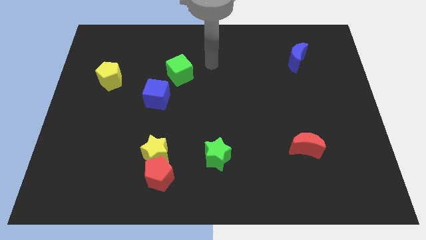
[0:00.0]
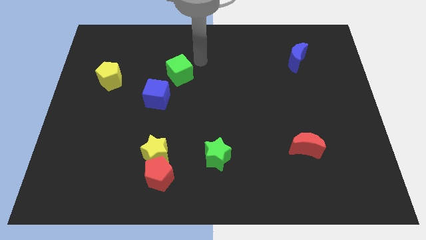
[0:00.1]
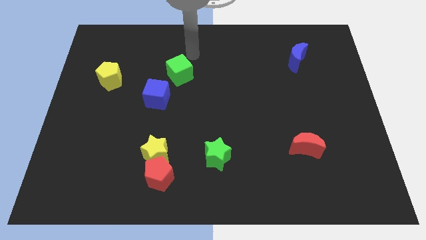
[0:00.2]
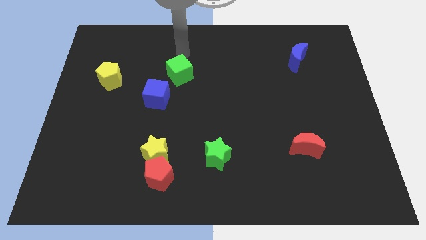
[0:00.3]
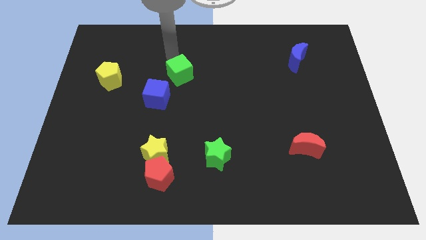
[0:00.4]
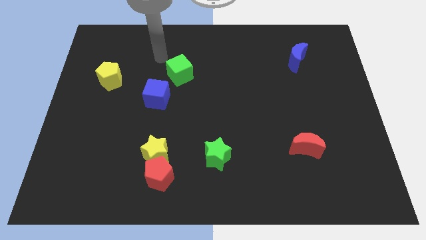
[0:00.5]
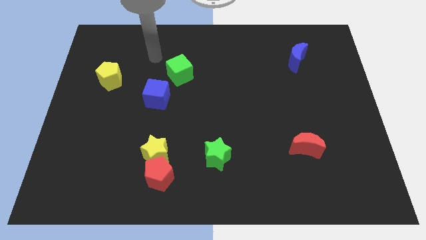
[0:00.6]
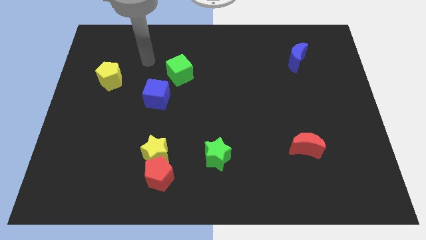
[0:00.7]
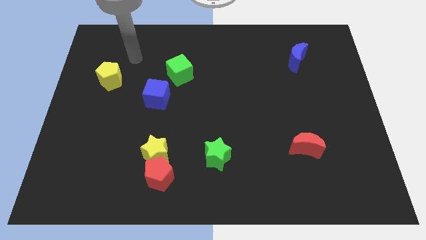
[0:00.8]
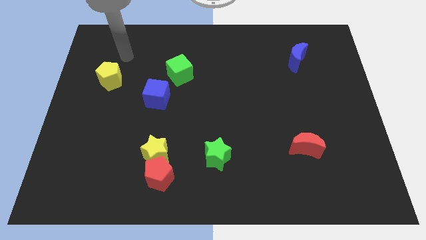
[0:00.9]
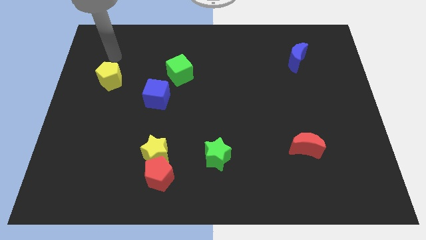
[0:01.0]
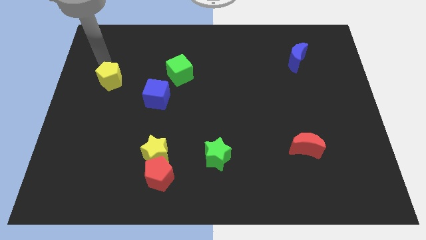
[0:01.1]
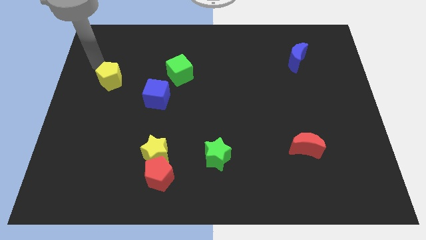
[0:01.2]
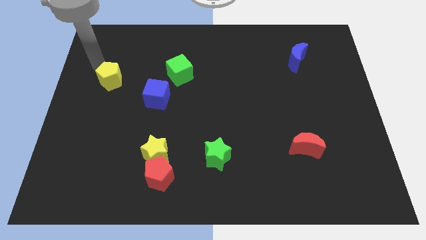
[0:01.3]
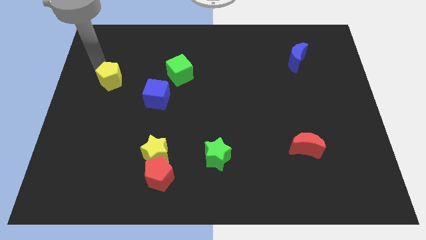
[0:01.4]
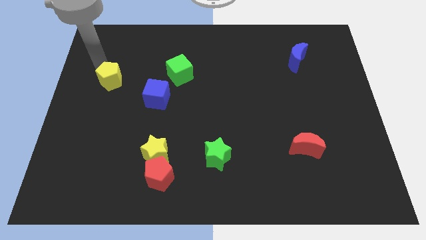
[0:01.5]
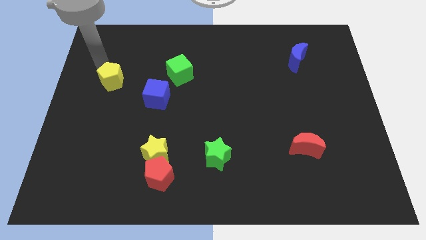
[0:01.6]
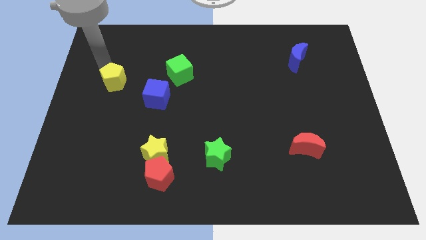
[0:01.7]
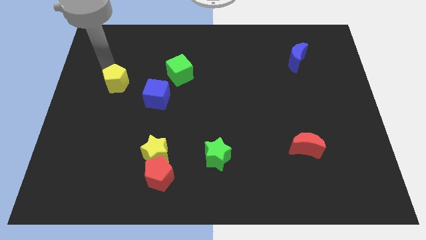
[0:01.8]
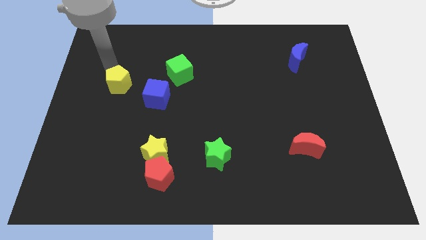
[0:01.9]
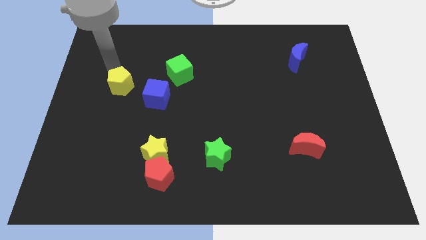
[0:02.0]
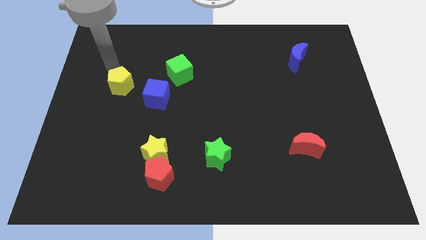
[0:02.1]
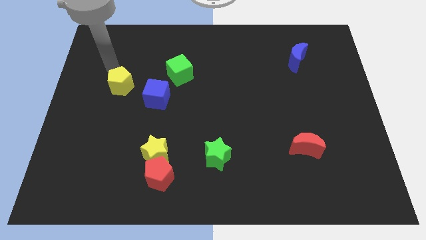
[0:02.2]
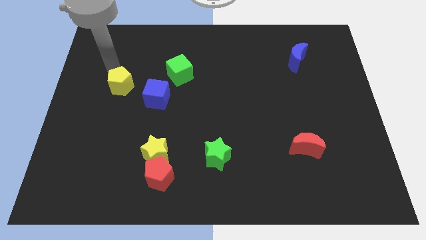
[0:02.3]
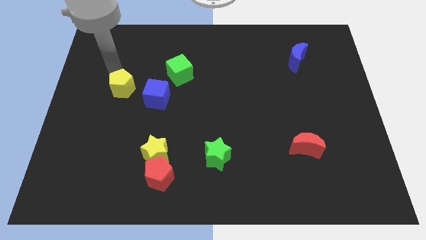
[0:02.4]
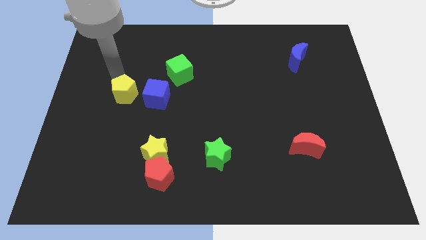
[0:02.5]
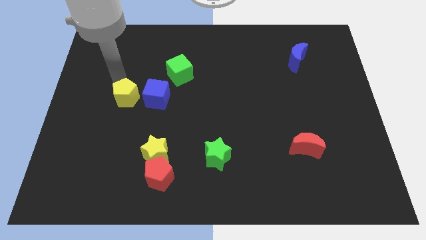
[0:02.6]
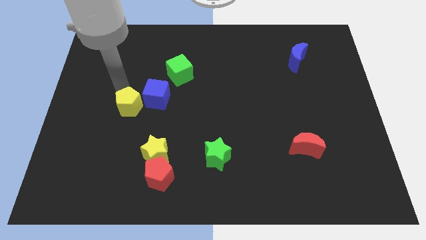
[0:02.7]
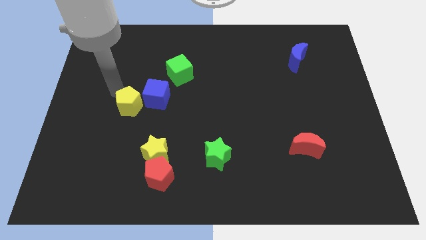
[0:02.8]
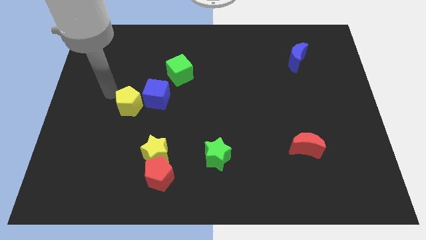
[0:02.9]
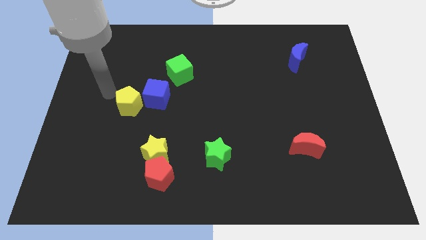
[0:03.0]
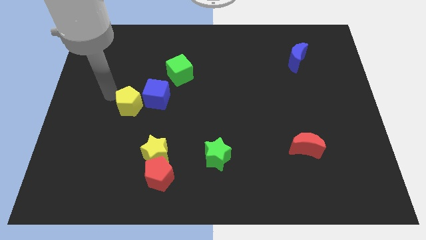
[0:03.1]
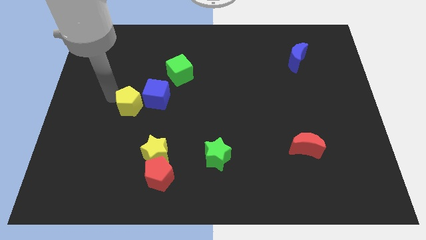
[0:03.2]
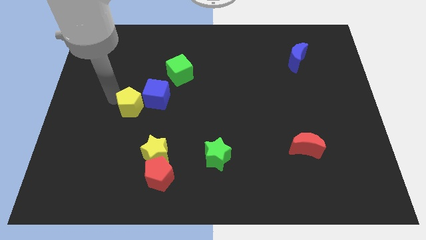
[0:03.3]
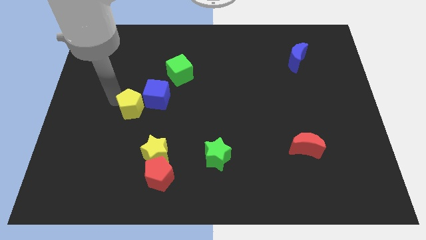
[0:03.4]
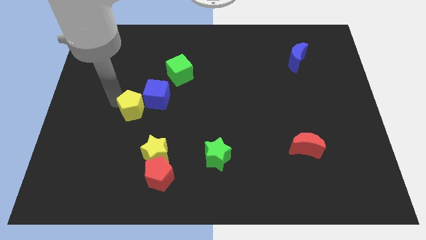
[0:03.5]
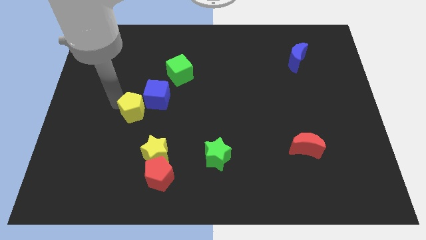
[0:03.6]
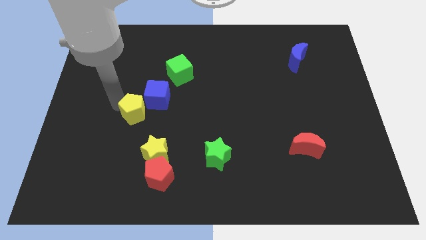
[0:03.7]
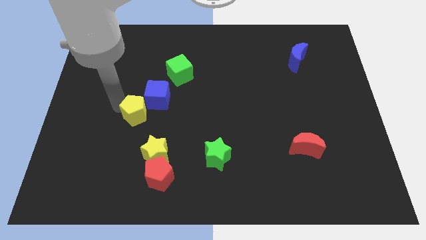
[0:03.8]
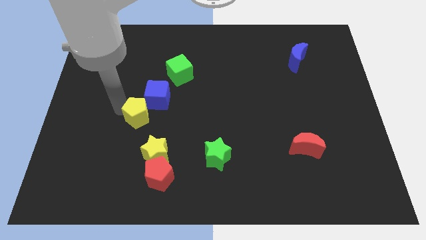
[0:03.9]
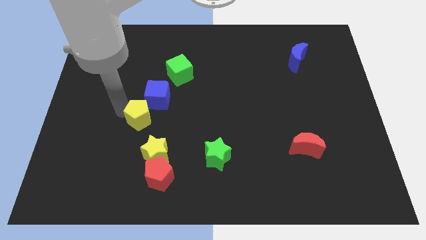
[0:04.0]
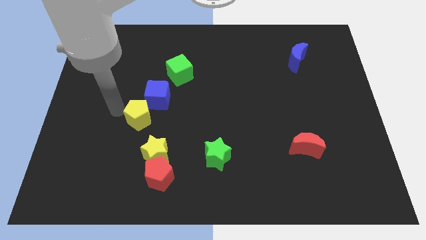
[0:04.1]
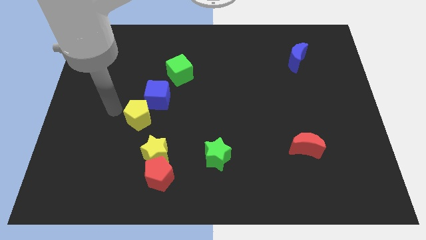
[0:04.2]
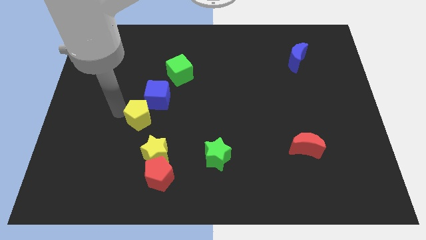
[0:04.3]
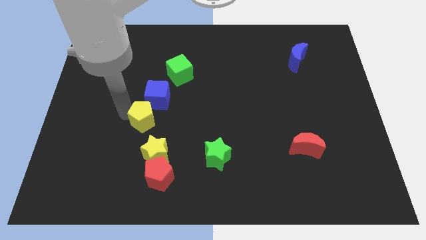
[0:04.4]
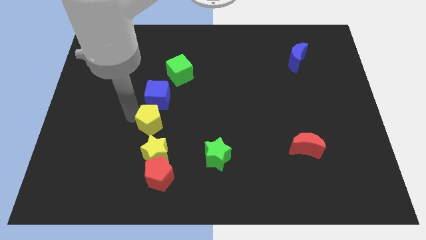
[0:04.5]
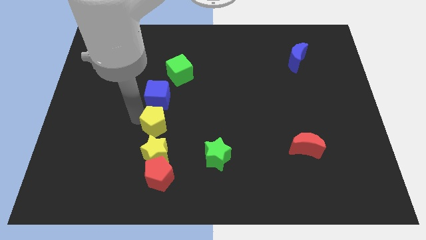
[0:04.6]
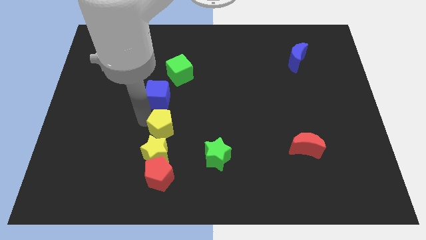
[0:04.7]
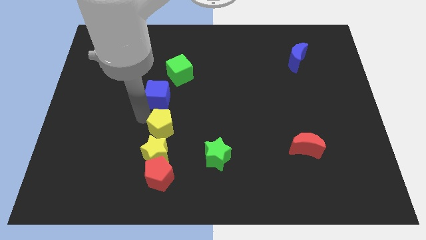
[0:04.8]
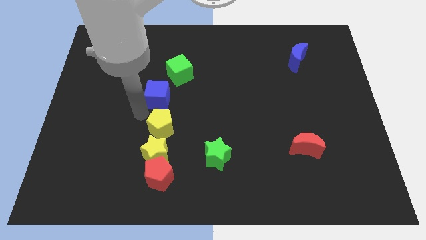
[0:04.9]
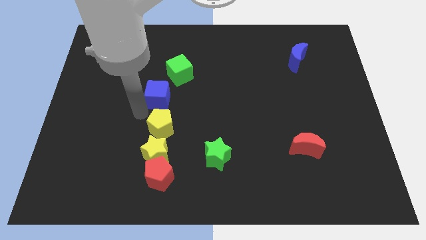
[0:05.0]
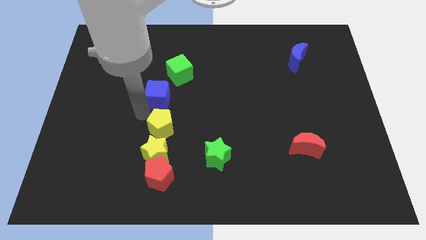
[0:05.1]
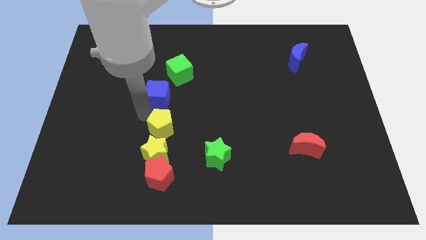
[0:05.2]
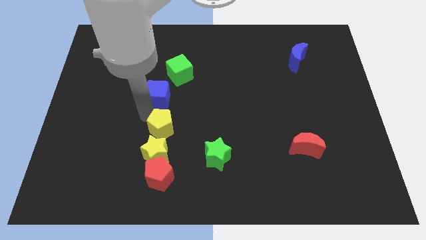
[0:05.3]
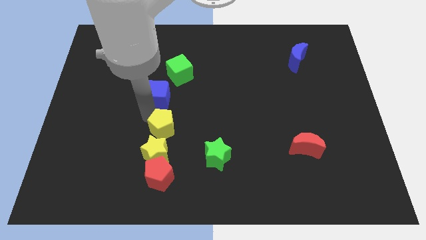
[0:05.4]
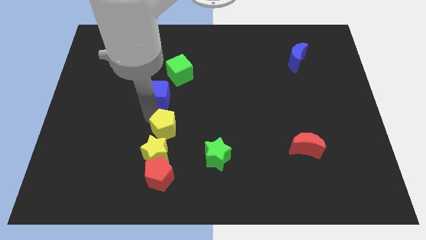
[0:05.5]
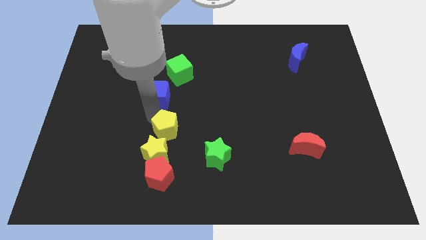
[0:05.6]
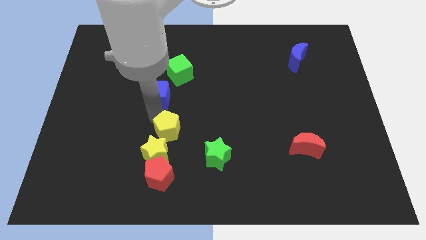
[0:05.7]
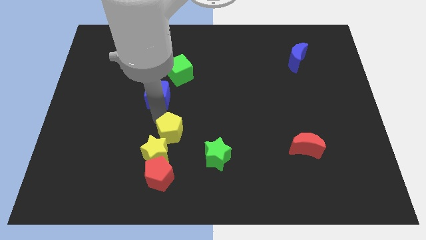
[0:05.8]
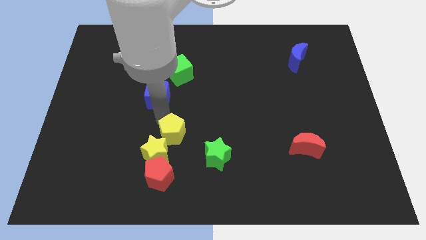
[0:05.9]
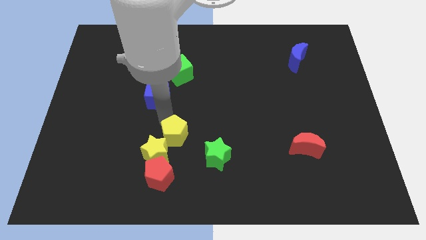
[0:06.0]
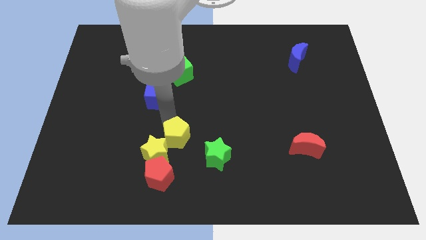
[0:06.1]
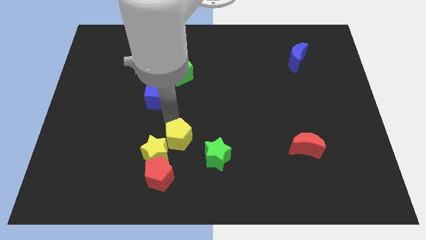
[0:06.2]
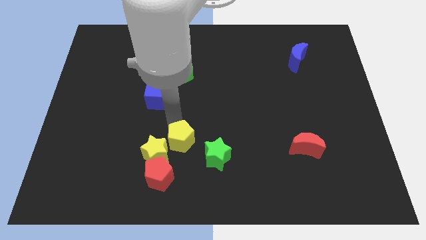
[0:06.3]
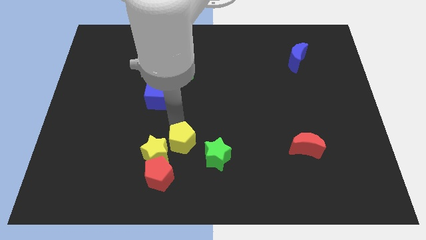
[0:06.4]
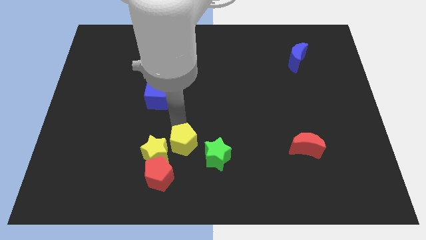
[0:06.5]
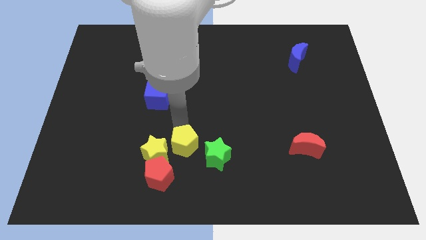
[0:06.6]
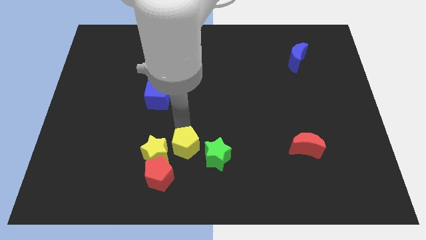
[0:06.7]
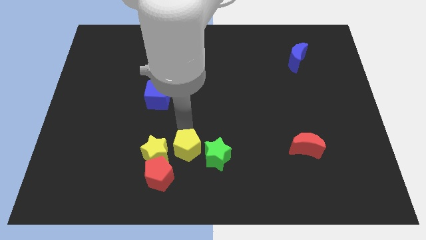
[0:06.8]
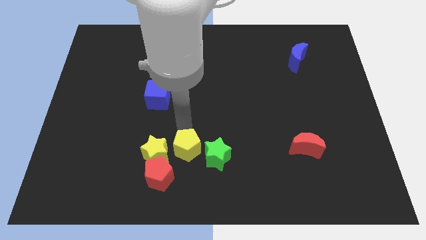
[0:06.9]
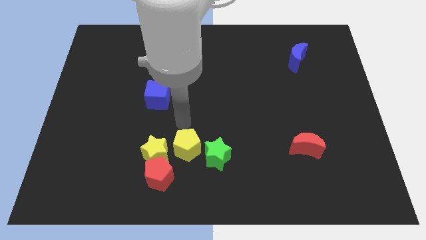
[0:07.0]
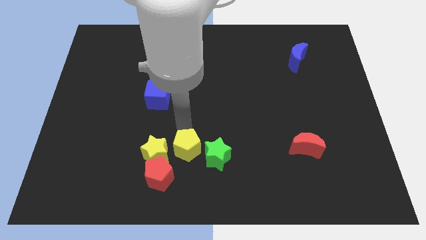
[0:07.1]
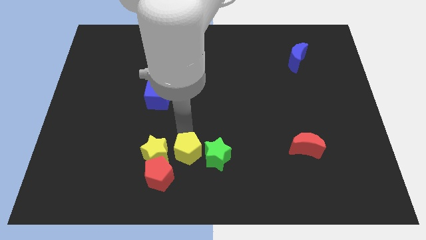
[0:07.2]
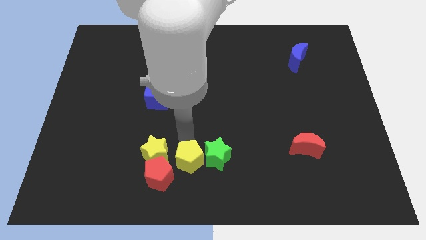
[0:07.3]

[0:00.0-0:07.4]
put the yellow pentagon to the bottom

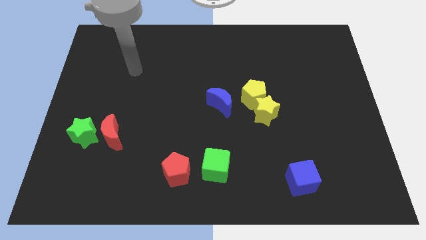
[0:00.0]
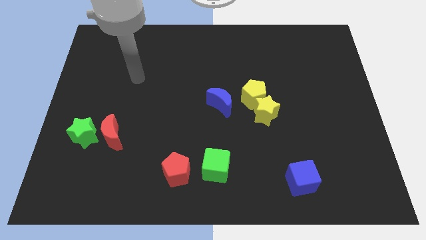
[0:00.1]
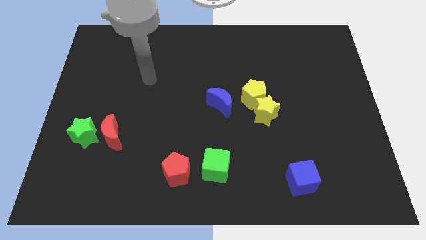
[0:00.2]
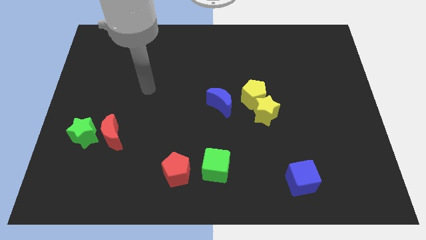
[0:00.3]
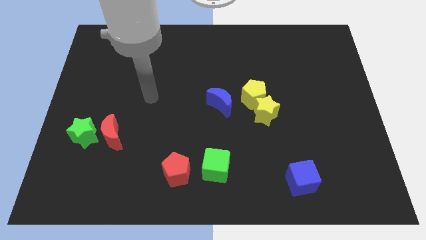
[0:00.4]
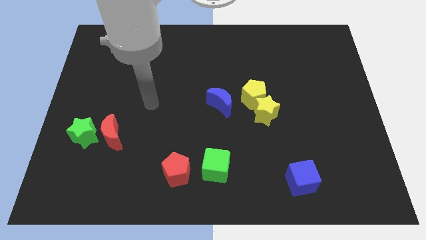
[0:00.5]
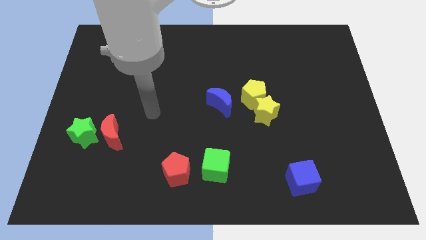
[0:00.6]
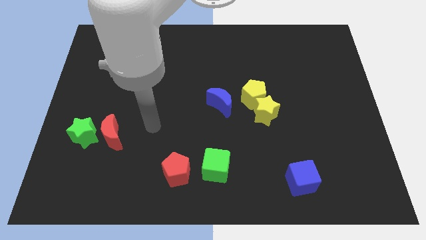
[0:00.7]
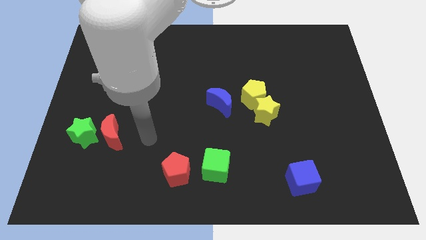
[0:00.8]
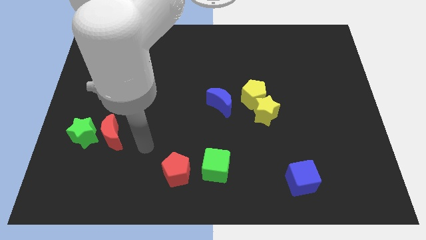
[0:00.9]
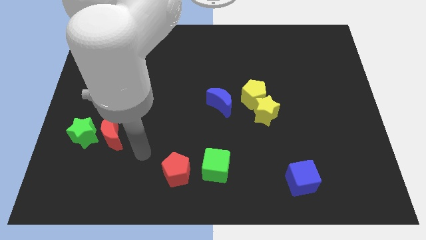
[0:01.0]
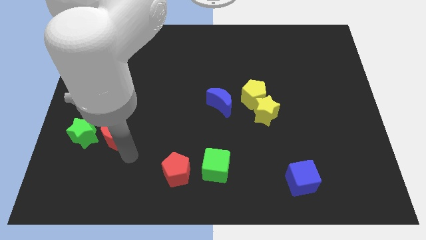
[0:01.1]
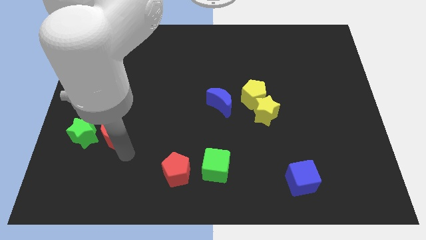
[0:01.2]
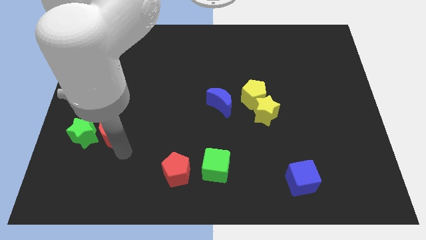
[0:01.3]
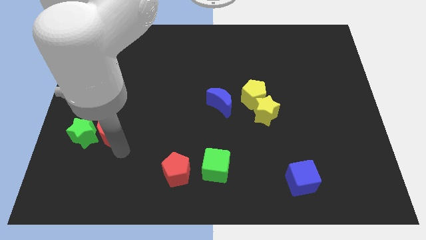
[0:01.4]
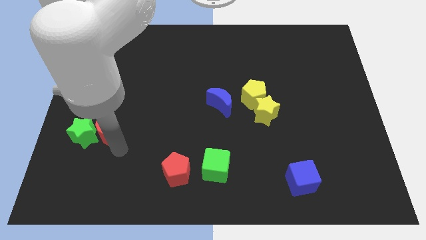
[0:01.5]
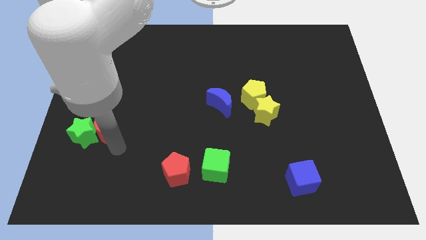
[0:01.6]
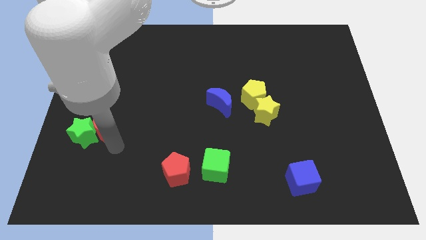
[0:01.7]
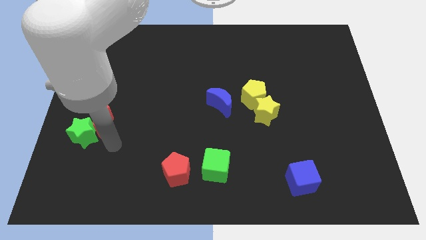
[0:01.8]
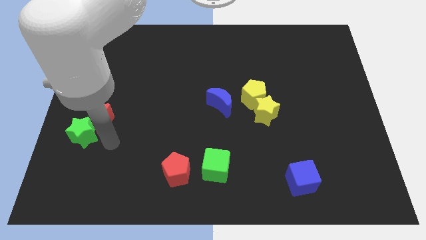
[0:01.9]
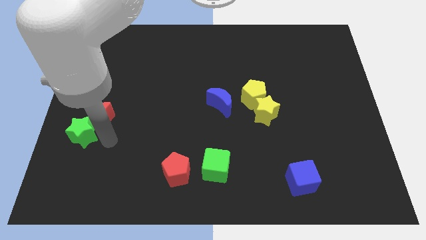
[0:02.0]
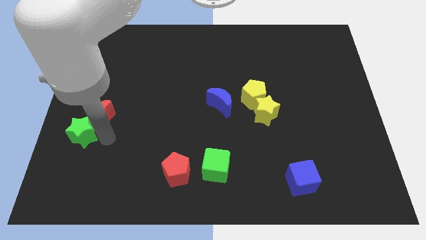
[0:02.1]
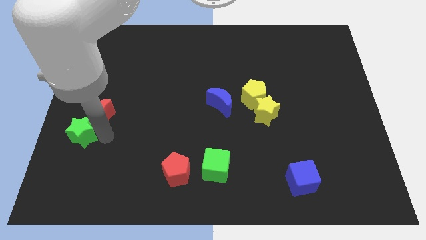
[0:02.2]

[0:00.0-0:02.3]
put the red moon to the left side
